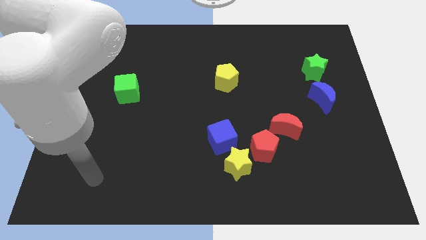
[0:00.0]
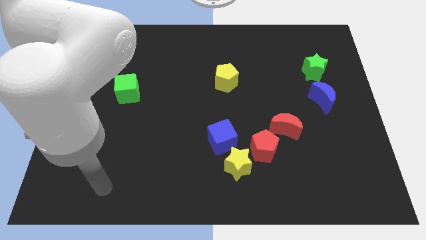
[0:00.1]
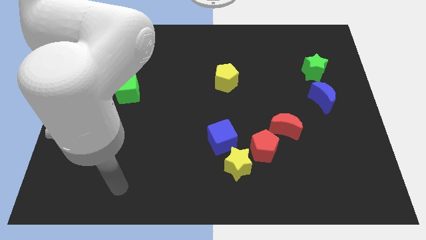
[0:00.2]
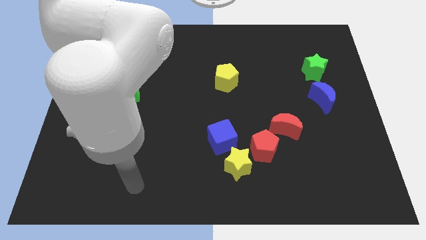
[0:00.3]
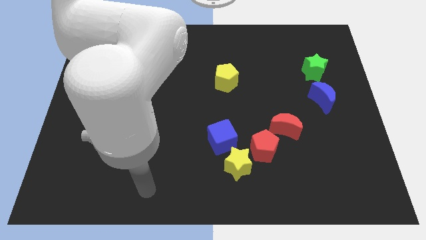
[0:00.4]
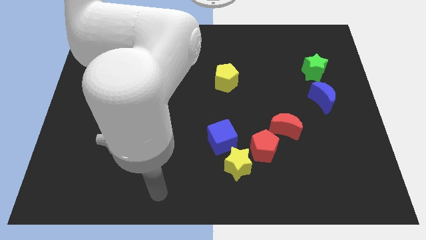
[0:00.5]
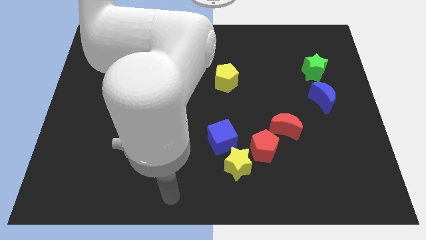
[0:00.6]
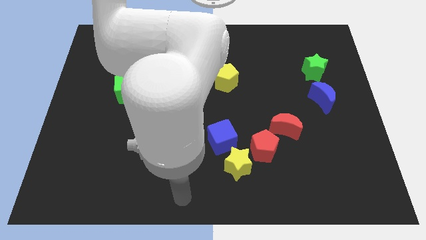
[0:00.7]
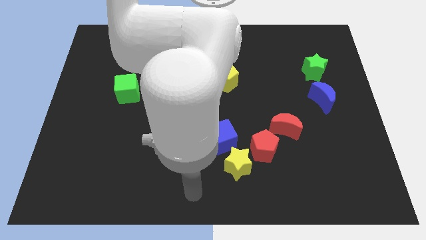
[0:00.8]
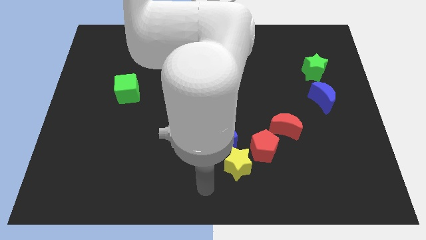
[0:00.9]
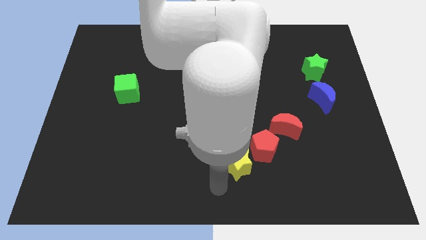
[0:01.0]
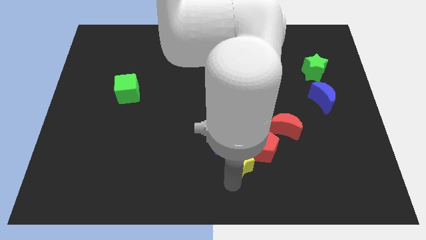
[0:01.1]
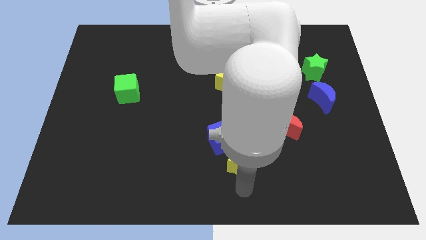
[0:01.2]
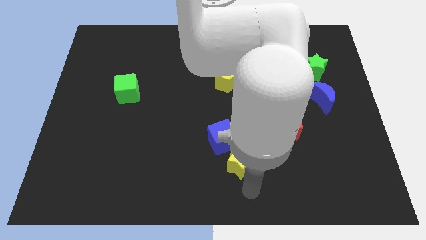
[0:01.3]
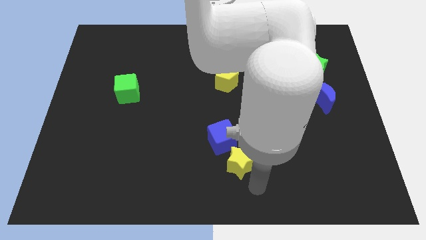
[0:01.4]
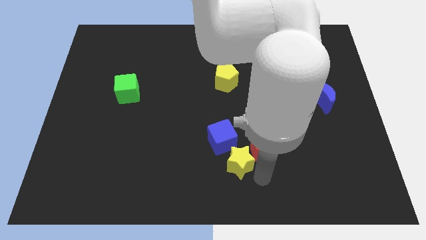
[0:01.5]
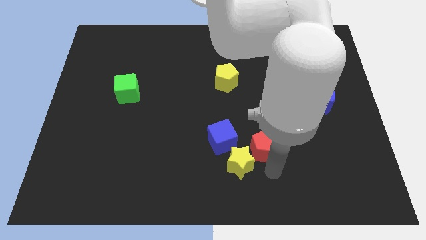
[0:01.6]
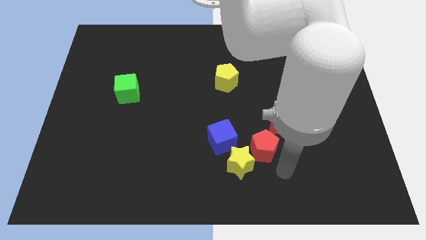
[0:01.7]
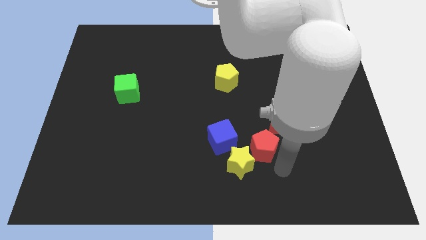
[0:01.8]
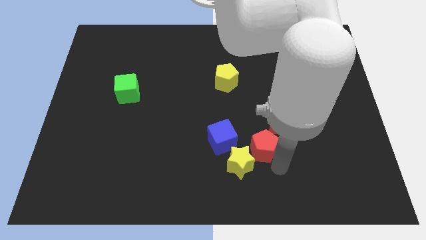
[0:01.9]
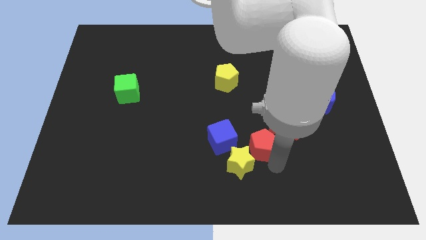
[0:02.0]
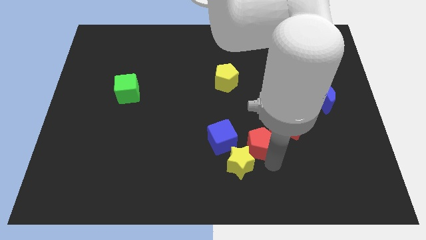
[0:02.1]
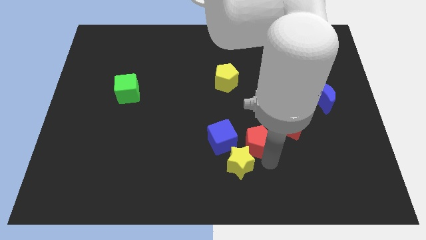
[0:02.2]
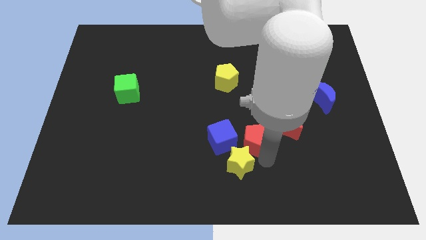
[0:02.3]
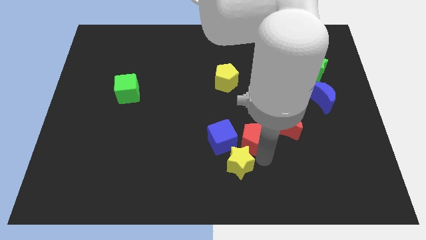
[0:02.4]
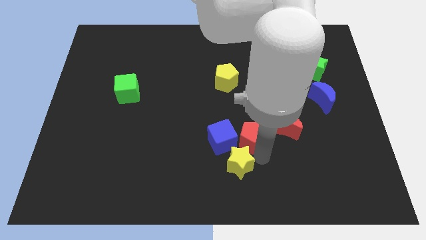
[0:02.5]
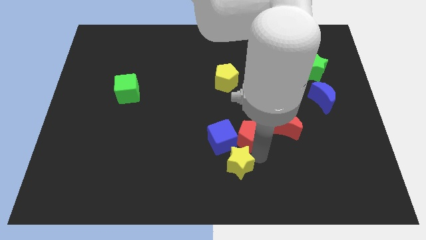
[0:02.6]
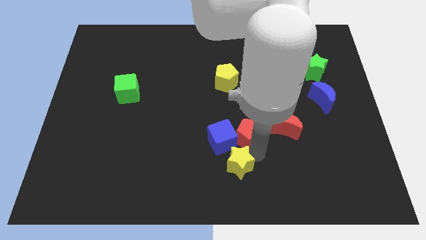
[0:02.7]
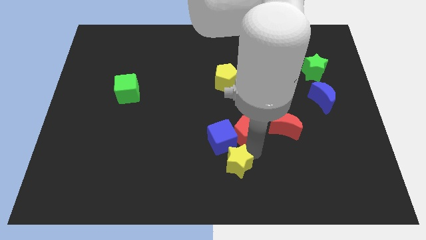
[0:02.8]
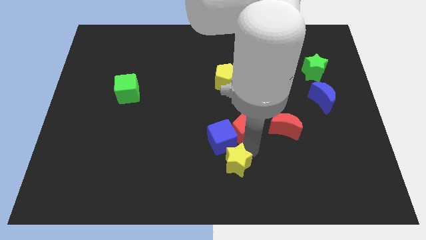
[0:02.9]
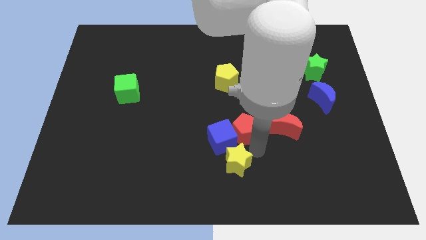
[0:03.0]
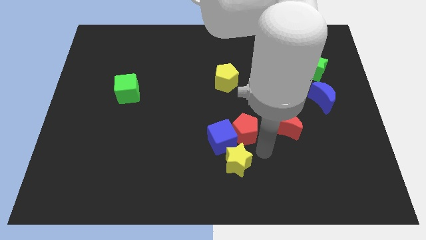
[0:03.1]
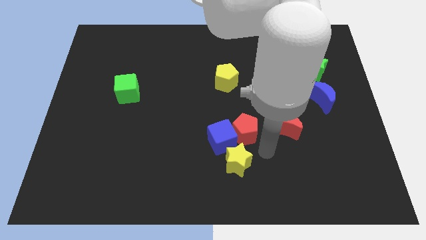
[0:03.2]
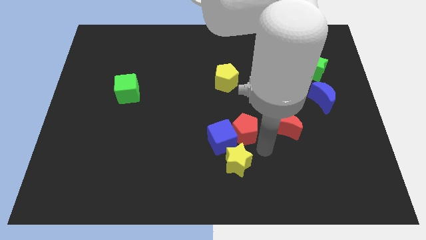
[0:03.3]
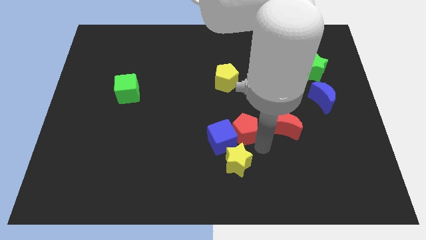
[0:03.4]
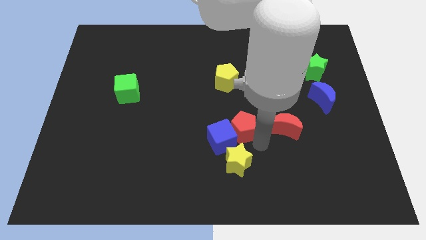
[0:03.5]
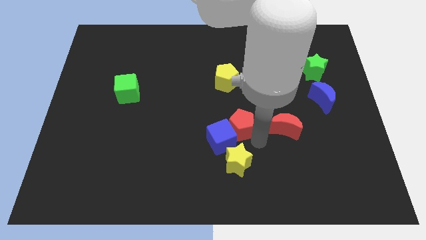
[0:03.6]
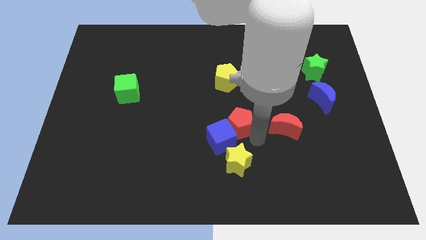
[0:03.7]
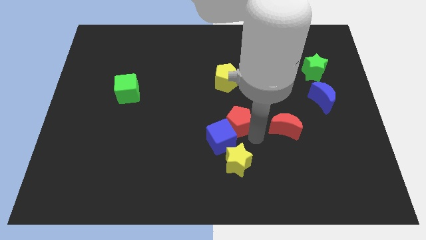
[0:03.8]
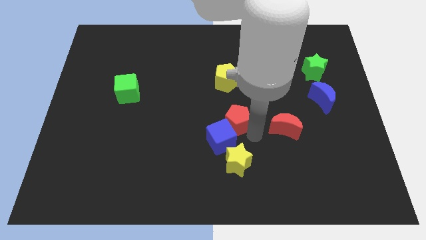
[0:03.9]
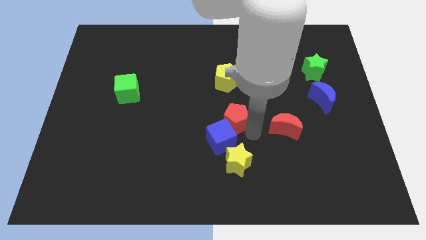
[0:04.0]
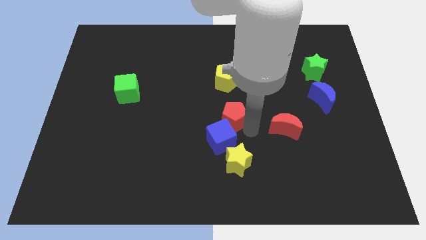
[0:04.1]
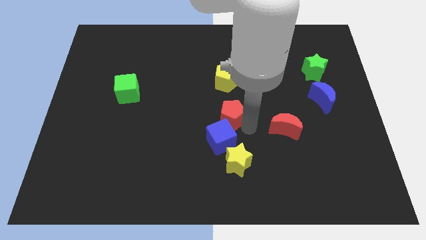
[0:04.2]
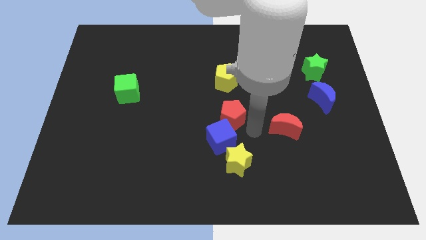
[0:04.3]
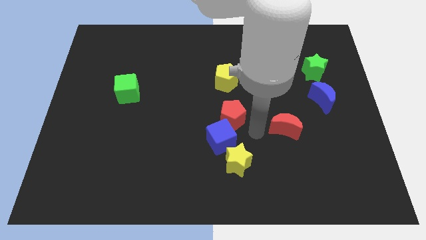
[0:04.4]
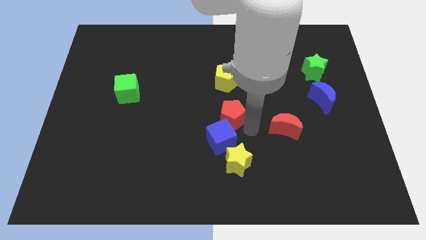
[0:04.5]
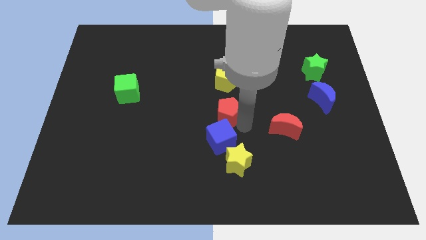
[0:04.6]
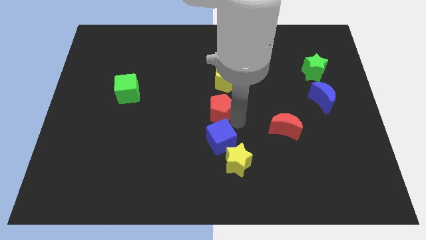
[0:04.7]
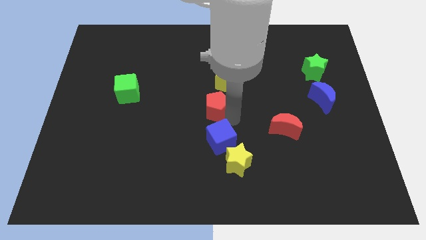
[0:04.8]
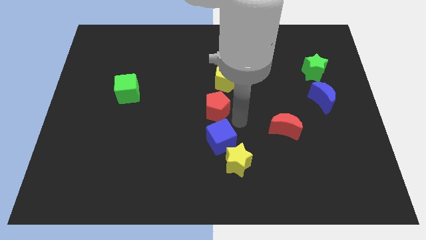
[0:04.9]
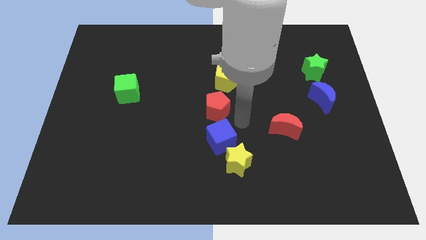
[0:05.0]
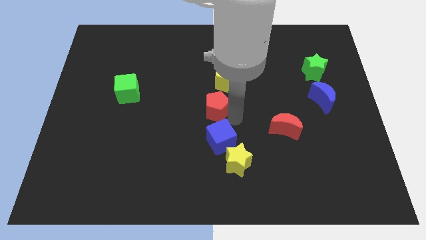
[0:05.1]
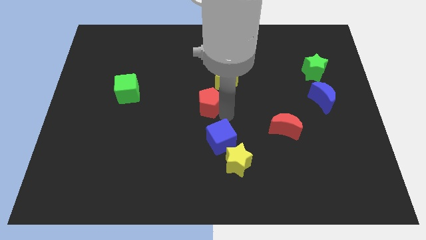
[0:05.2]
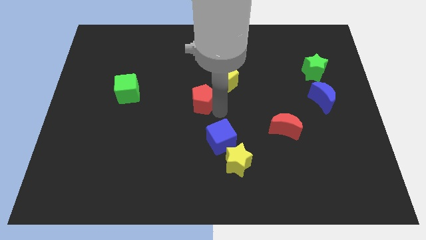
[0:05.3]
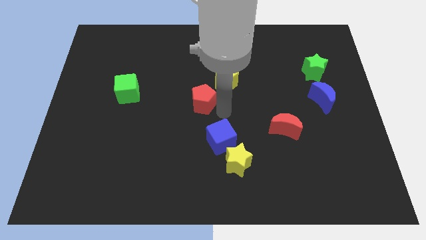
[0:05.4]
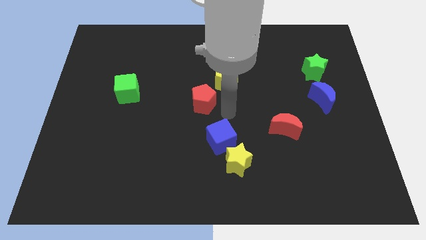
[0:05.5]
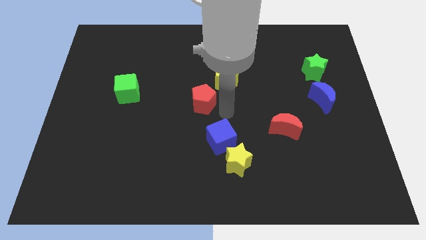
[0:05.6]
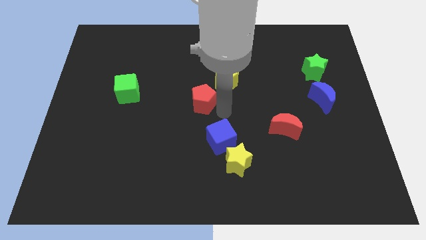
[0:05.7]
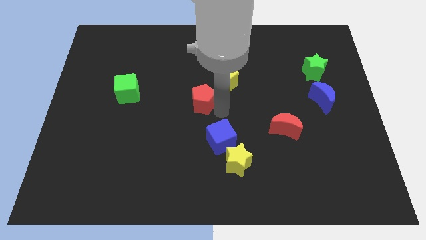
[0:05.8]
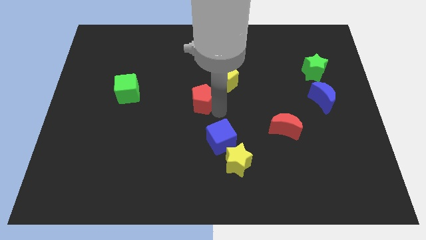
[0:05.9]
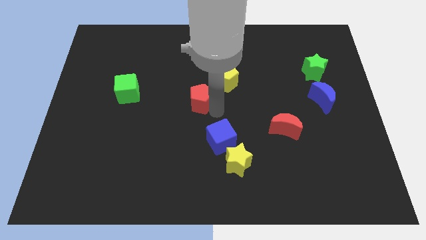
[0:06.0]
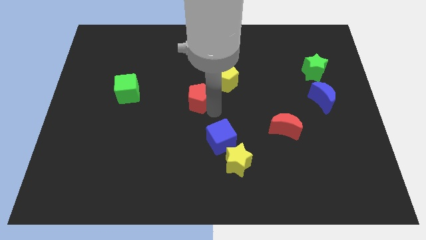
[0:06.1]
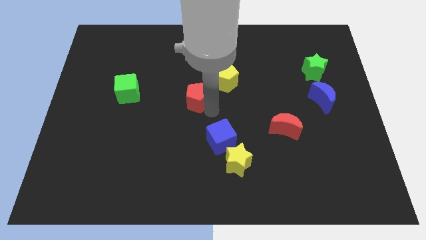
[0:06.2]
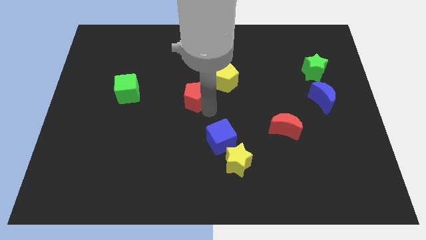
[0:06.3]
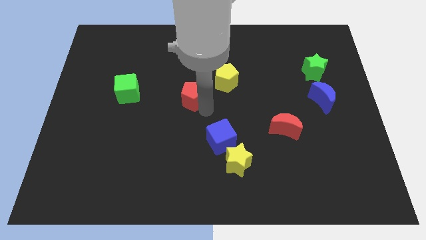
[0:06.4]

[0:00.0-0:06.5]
slide the red pentagon right of the green cube

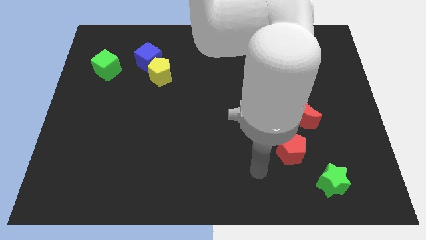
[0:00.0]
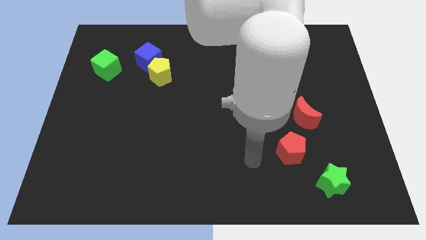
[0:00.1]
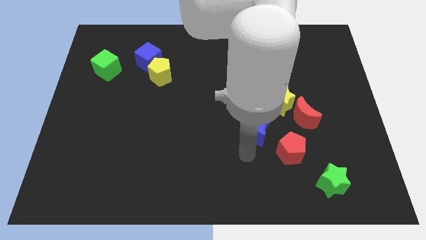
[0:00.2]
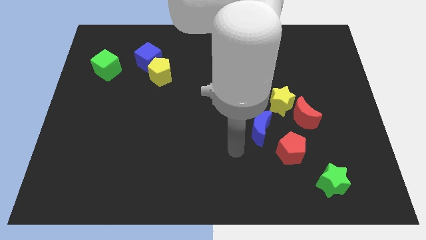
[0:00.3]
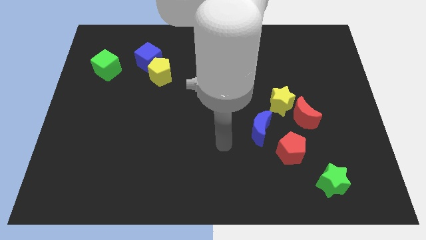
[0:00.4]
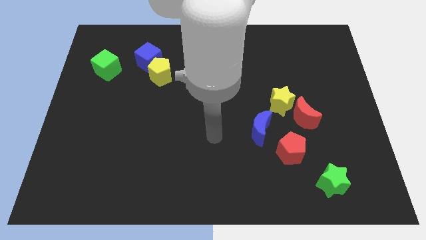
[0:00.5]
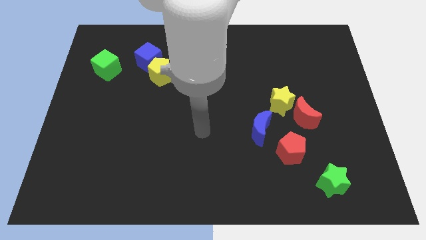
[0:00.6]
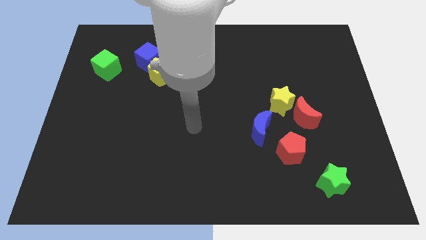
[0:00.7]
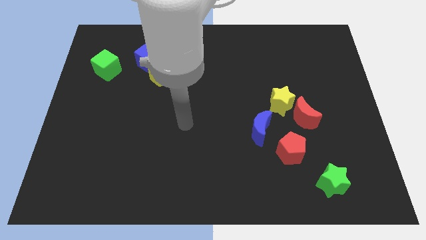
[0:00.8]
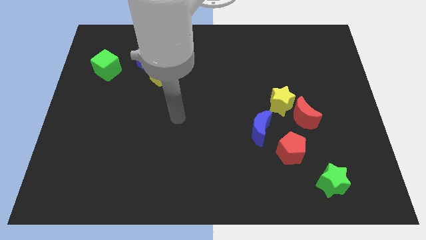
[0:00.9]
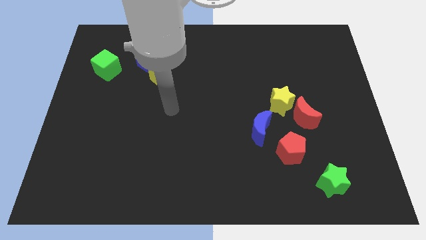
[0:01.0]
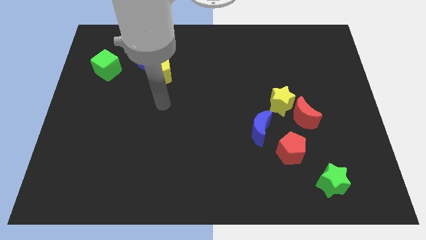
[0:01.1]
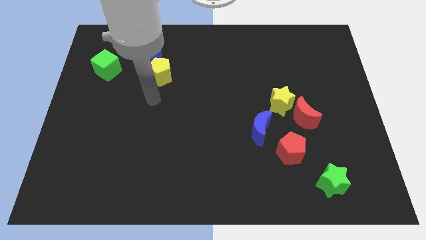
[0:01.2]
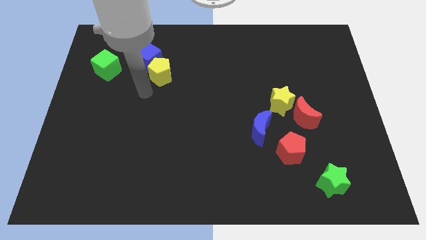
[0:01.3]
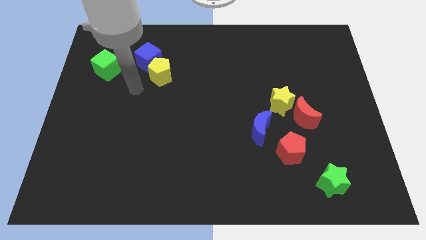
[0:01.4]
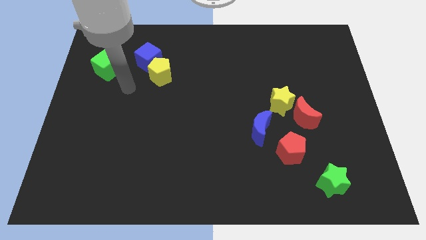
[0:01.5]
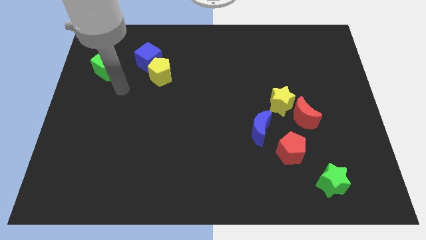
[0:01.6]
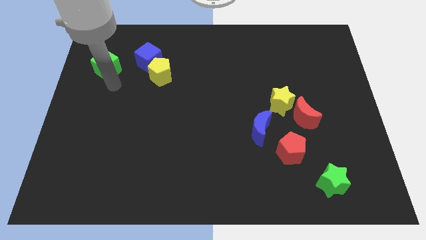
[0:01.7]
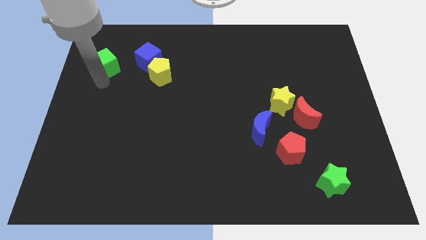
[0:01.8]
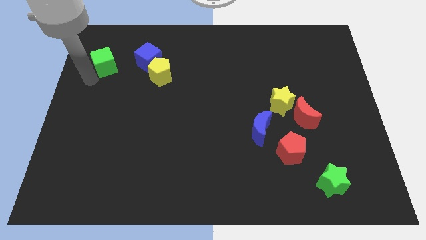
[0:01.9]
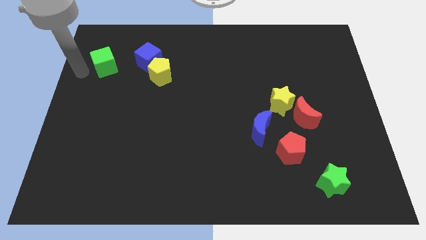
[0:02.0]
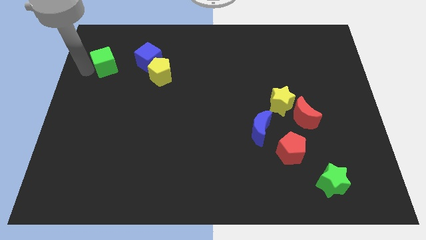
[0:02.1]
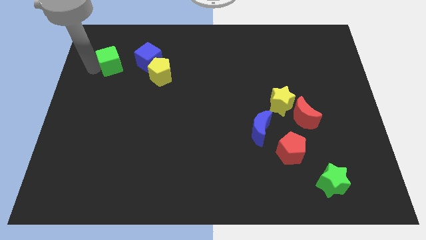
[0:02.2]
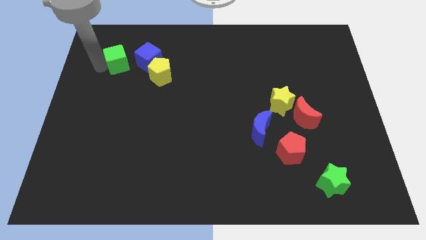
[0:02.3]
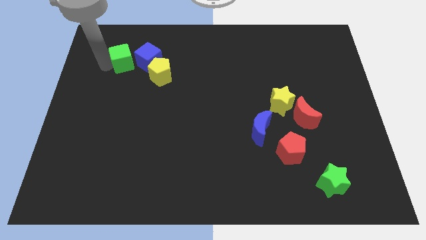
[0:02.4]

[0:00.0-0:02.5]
slide the green cube to the top left of the yellow pentagon
